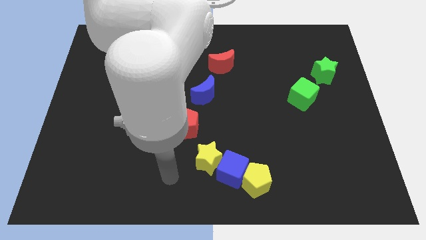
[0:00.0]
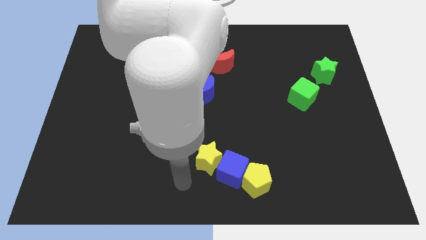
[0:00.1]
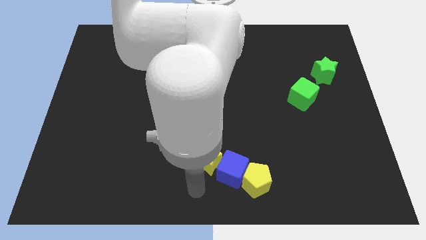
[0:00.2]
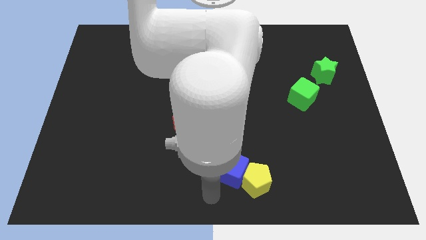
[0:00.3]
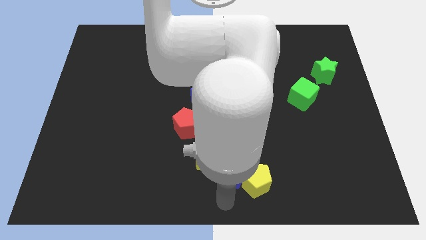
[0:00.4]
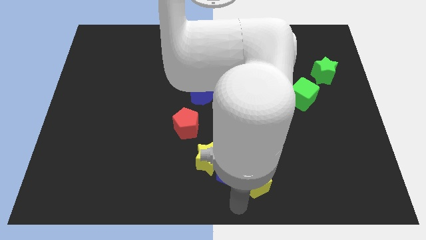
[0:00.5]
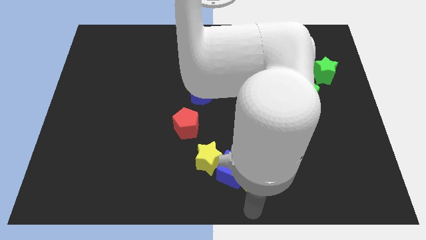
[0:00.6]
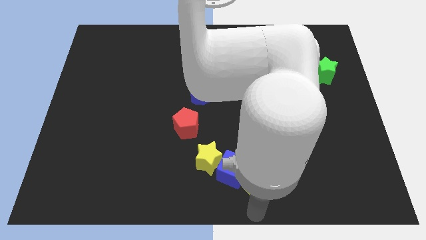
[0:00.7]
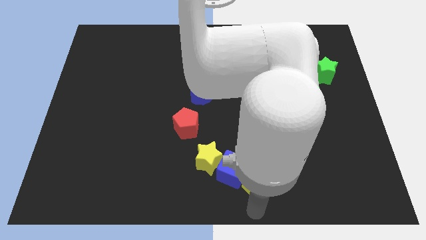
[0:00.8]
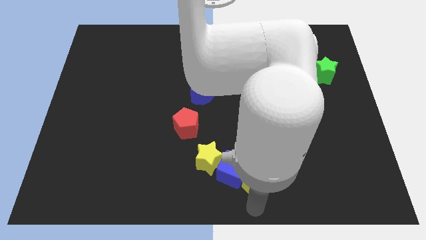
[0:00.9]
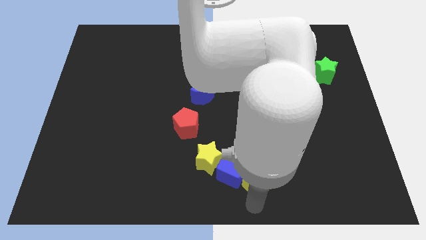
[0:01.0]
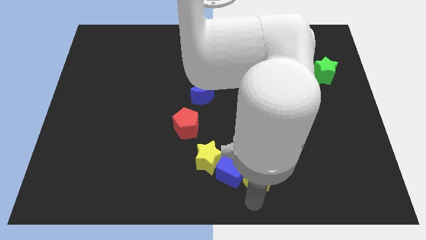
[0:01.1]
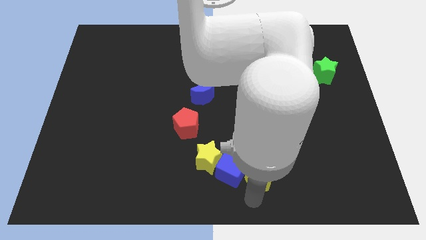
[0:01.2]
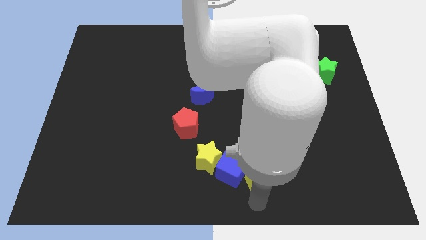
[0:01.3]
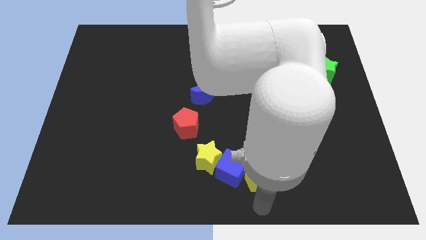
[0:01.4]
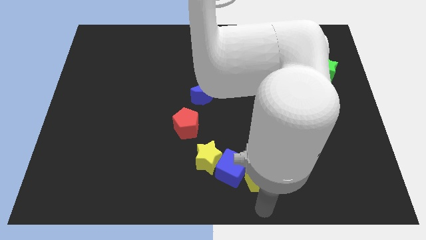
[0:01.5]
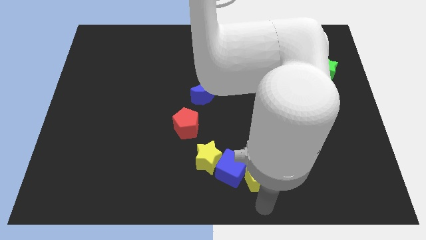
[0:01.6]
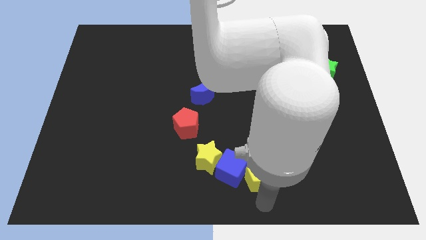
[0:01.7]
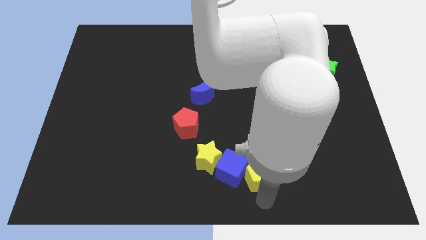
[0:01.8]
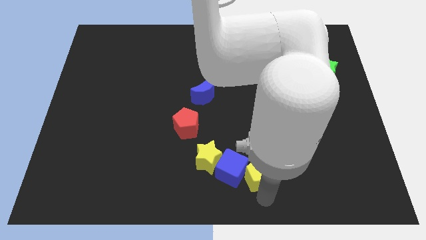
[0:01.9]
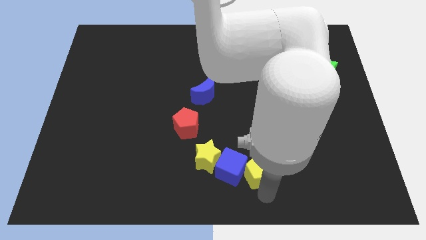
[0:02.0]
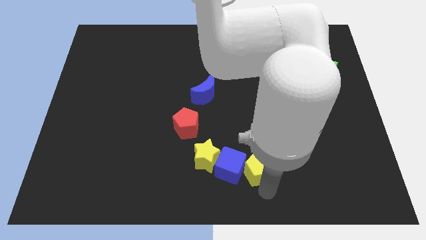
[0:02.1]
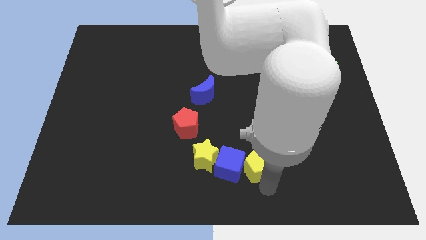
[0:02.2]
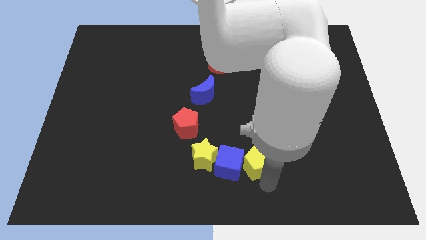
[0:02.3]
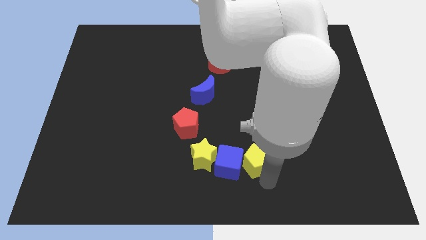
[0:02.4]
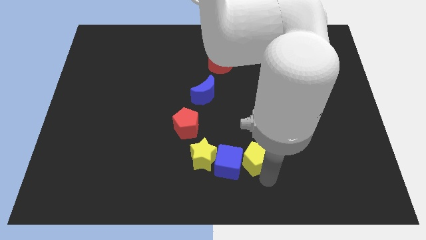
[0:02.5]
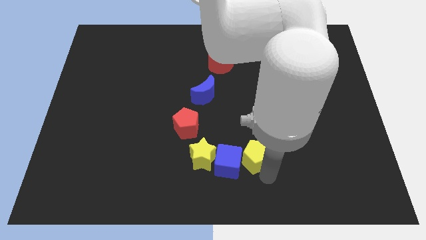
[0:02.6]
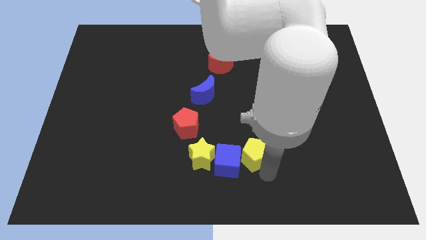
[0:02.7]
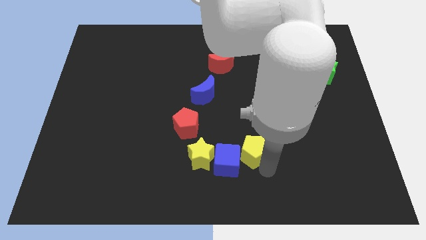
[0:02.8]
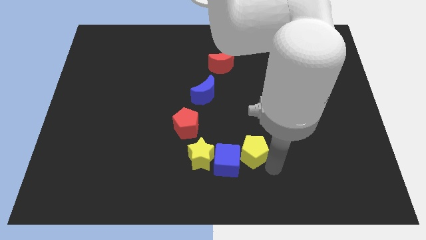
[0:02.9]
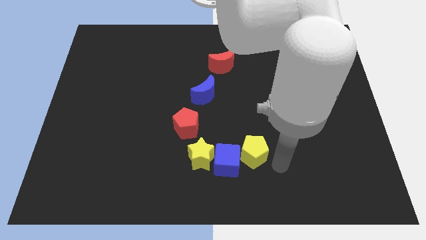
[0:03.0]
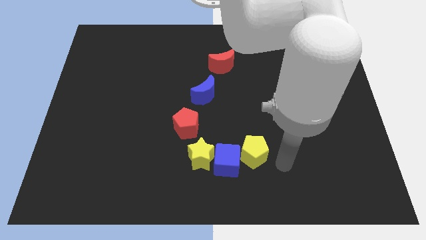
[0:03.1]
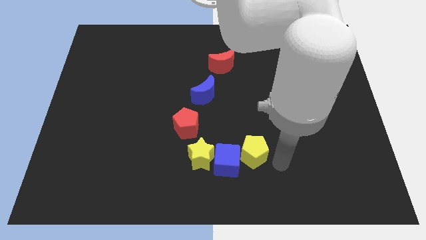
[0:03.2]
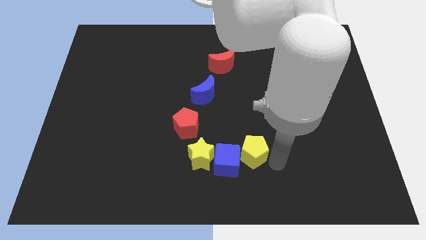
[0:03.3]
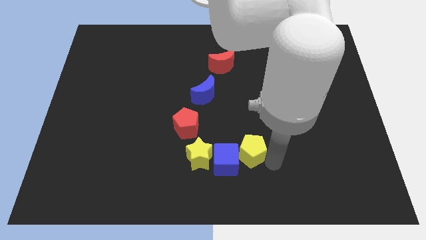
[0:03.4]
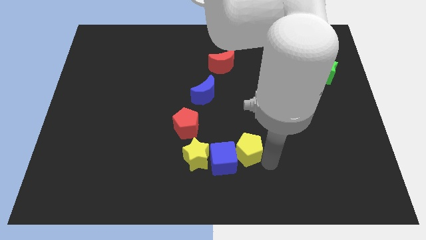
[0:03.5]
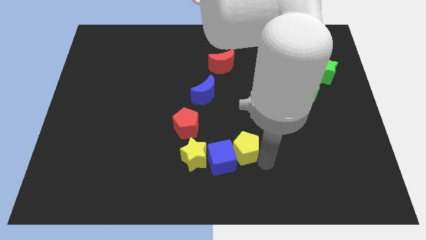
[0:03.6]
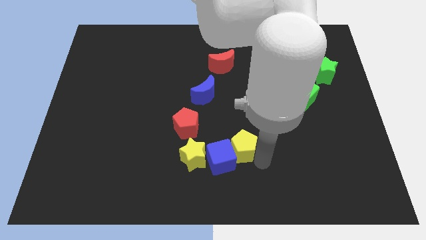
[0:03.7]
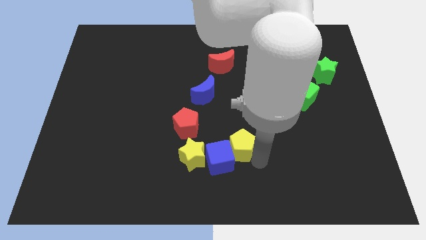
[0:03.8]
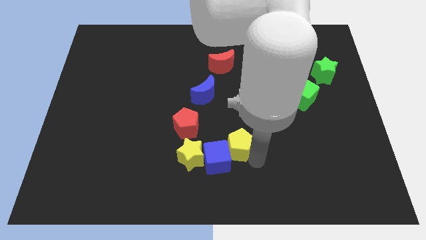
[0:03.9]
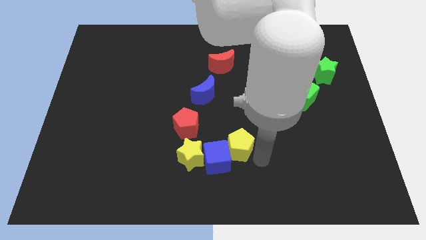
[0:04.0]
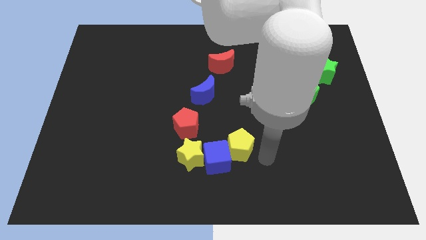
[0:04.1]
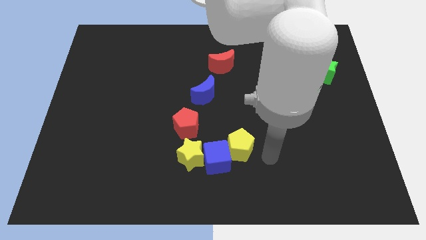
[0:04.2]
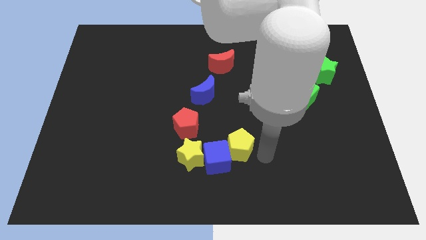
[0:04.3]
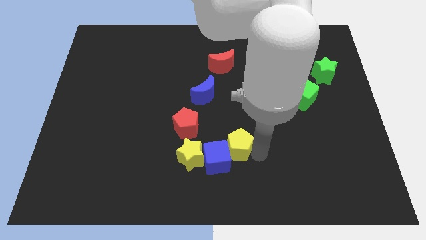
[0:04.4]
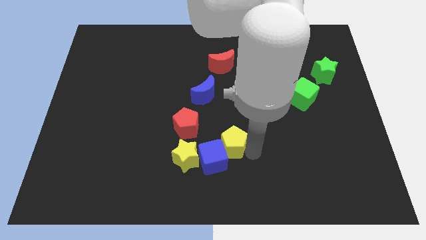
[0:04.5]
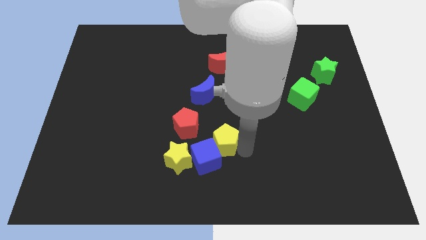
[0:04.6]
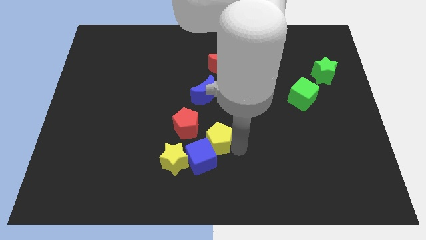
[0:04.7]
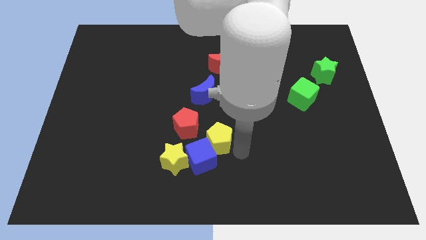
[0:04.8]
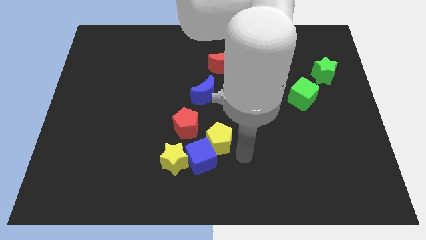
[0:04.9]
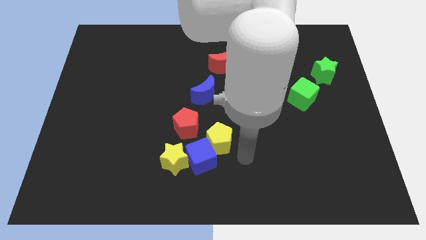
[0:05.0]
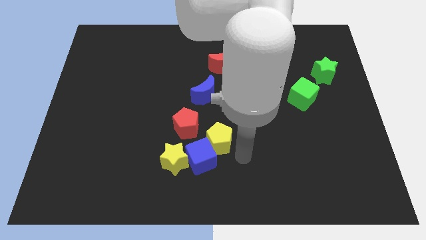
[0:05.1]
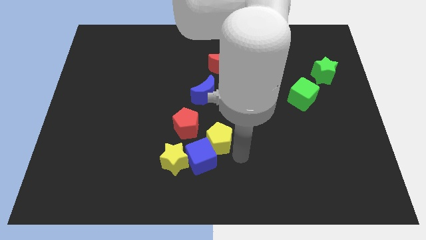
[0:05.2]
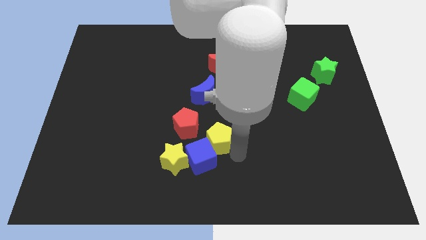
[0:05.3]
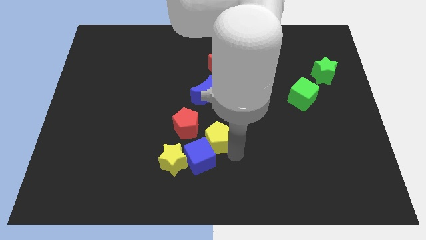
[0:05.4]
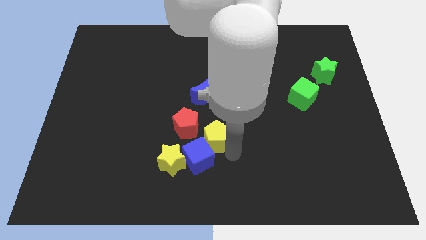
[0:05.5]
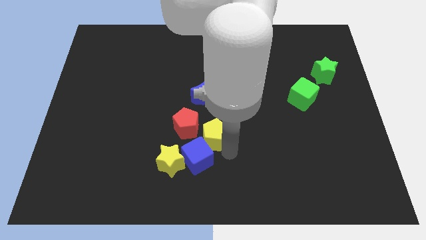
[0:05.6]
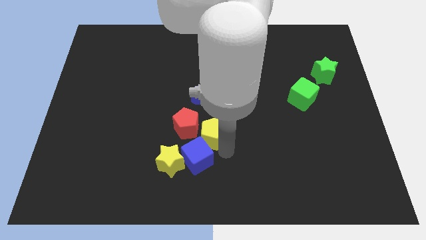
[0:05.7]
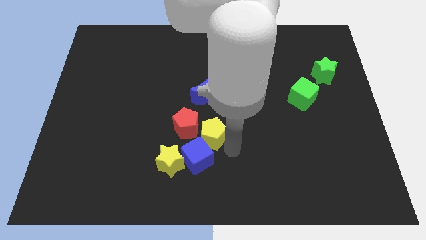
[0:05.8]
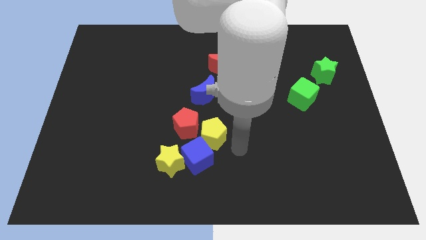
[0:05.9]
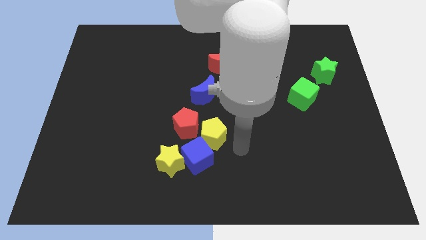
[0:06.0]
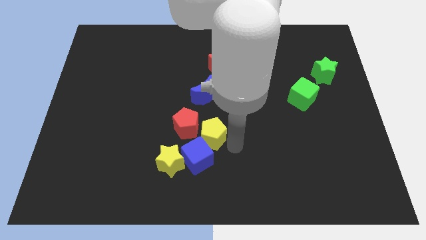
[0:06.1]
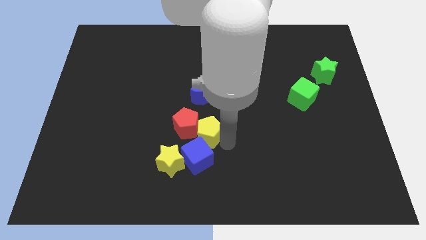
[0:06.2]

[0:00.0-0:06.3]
move the yellow pentagon towards the red pentagon

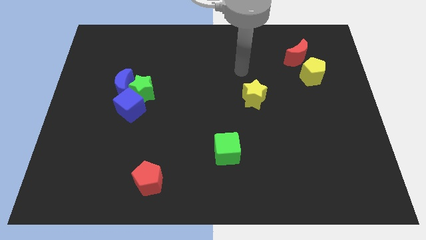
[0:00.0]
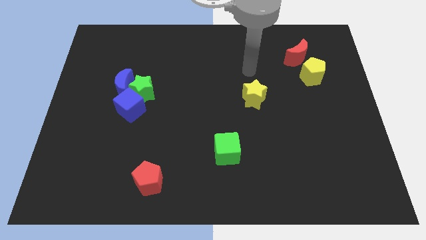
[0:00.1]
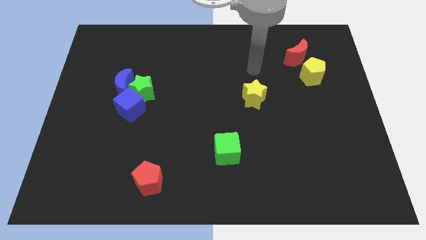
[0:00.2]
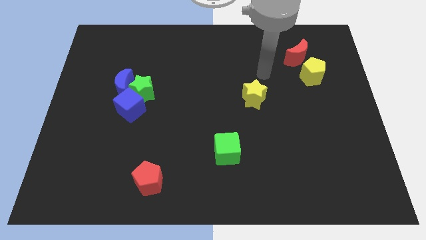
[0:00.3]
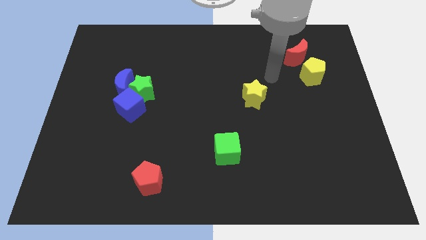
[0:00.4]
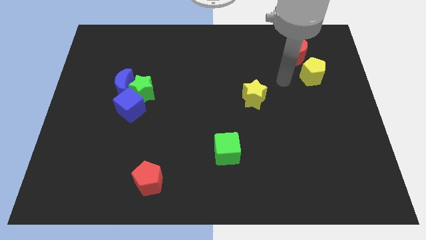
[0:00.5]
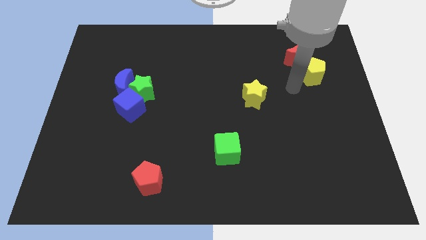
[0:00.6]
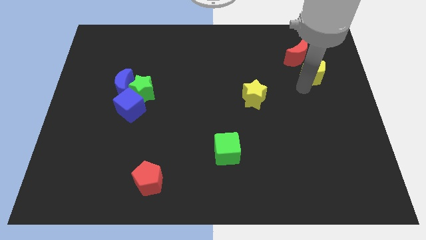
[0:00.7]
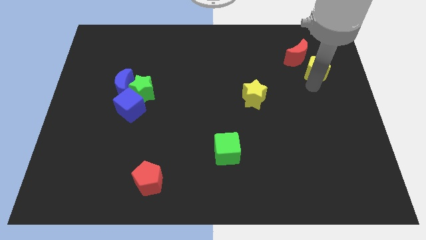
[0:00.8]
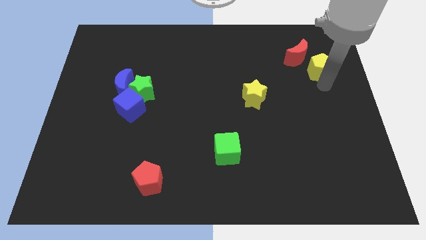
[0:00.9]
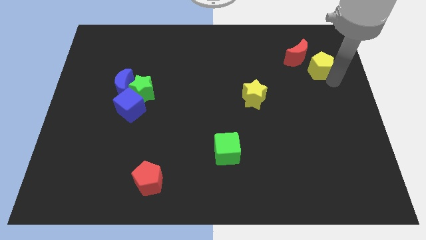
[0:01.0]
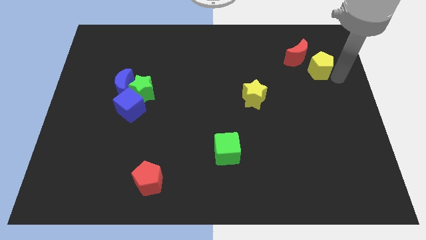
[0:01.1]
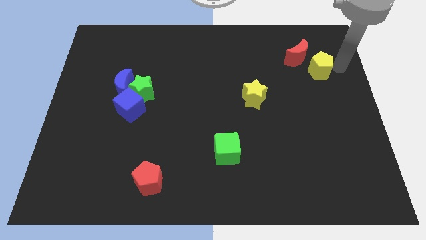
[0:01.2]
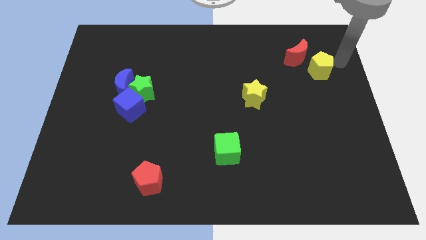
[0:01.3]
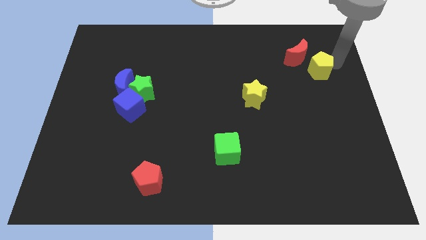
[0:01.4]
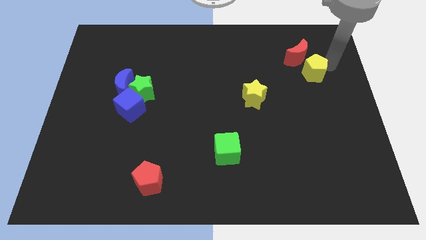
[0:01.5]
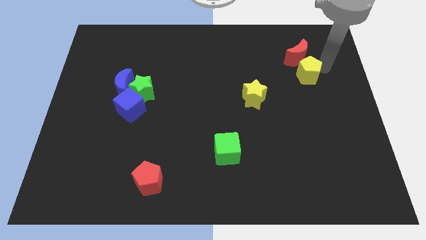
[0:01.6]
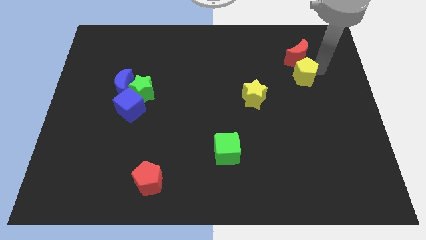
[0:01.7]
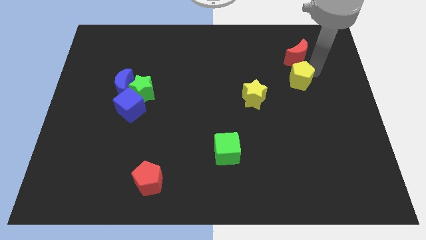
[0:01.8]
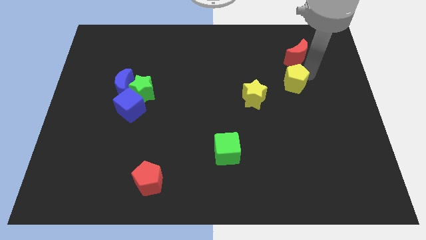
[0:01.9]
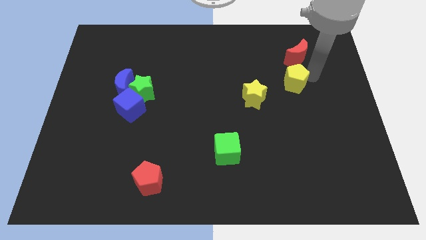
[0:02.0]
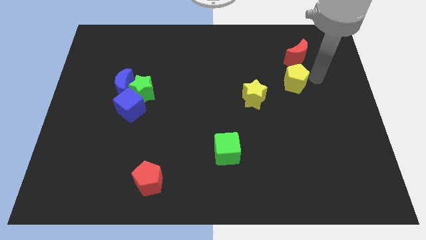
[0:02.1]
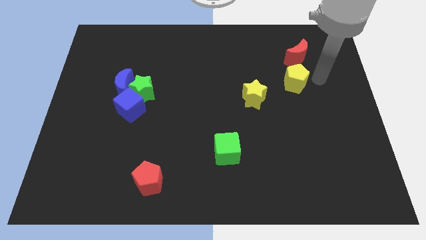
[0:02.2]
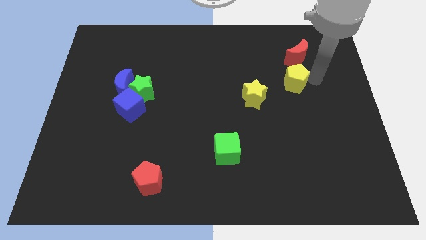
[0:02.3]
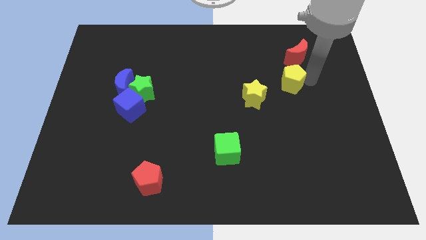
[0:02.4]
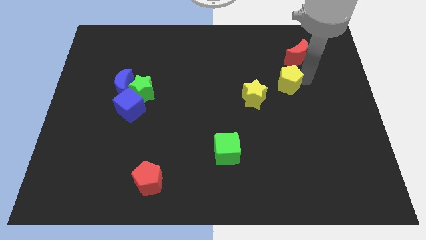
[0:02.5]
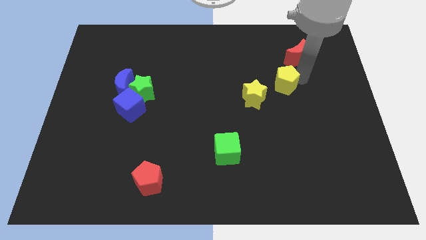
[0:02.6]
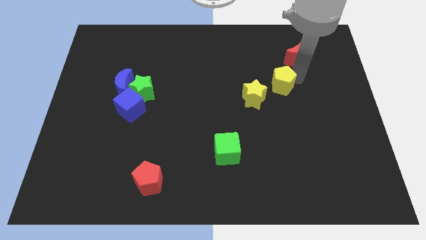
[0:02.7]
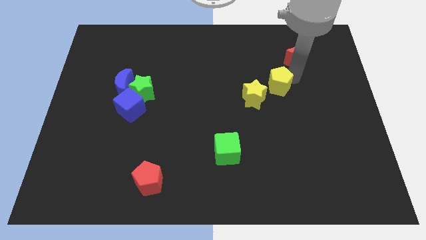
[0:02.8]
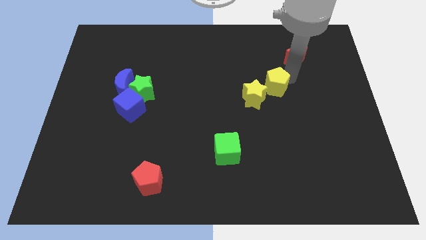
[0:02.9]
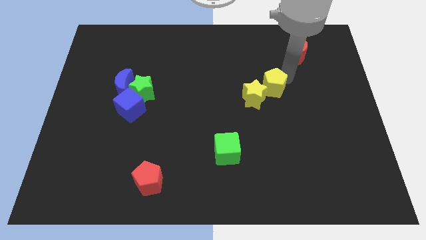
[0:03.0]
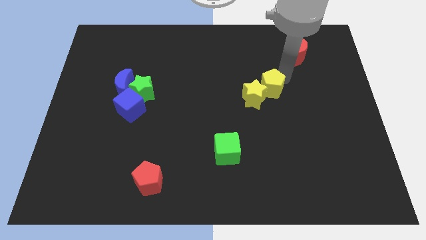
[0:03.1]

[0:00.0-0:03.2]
move the yellow pentagon next to the yellow star
